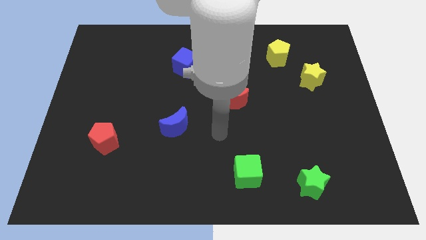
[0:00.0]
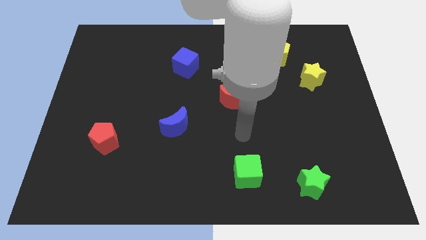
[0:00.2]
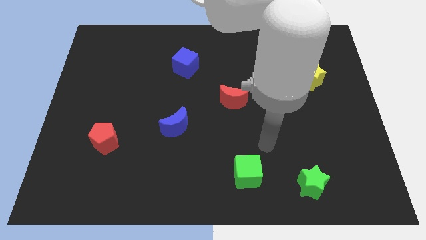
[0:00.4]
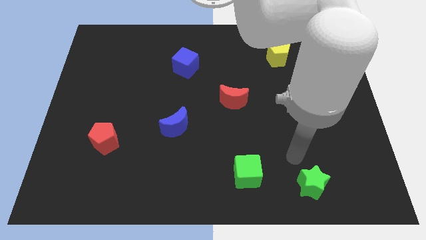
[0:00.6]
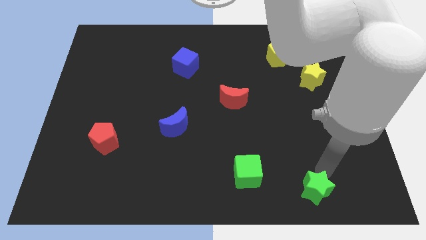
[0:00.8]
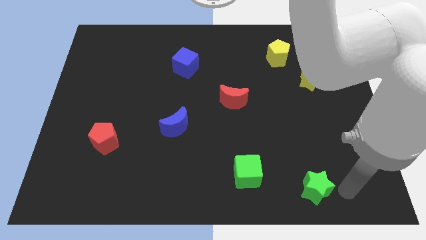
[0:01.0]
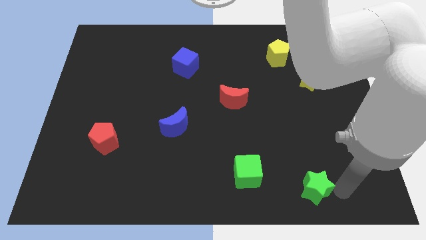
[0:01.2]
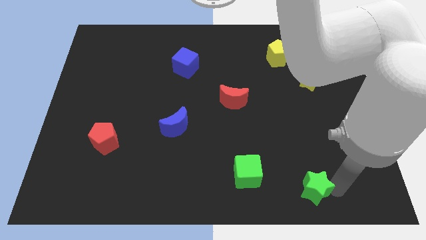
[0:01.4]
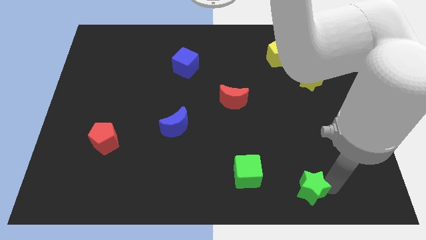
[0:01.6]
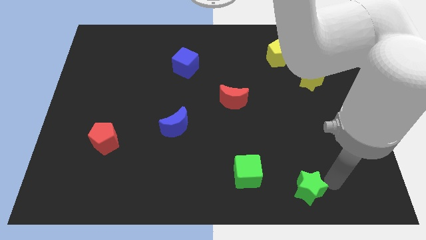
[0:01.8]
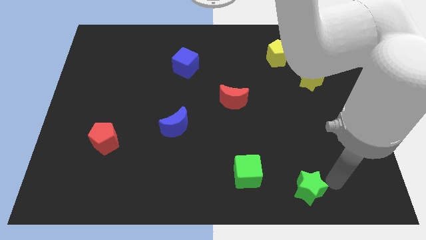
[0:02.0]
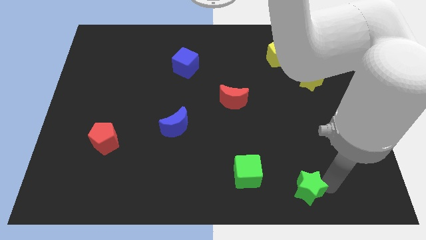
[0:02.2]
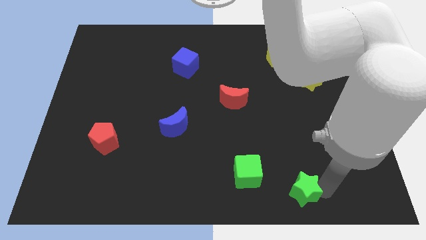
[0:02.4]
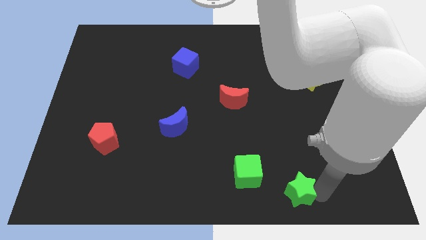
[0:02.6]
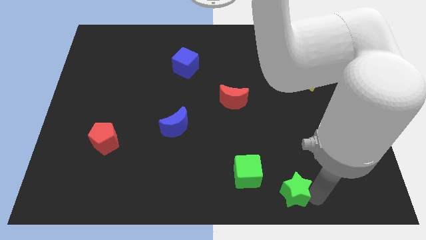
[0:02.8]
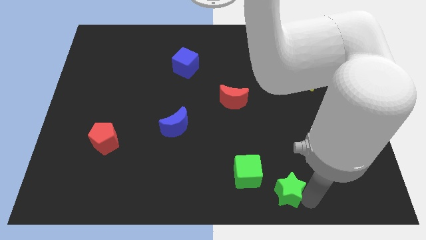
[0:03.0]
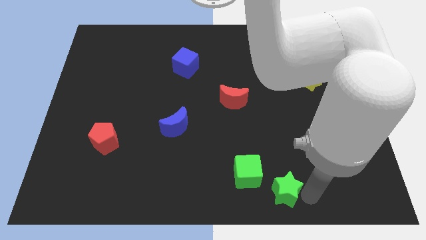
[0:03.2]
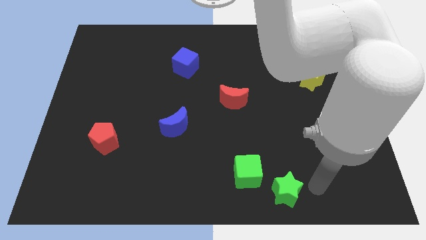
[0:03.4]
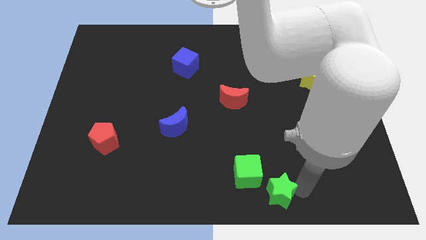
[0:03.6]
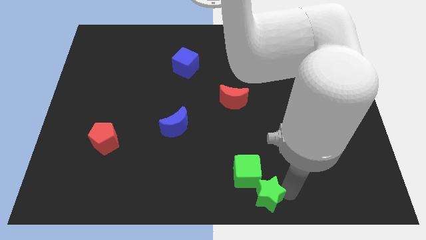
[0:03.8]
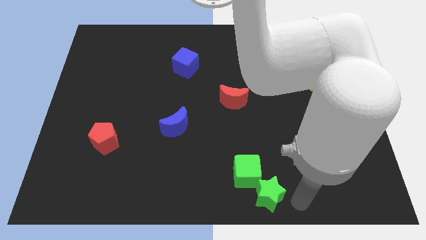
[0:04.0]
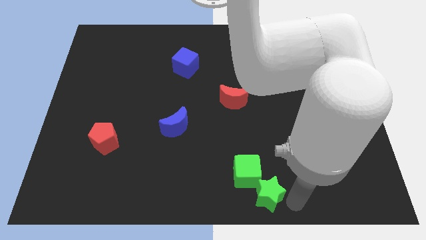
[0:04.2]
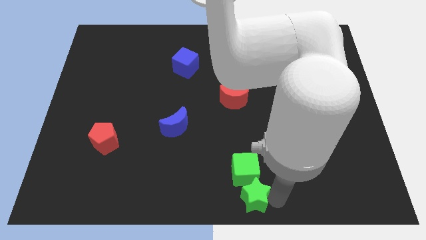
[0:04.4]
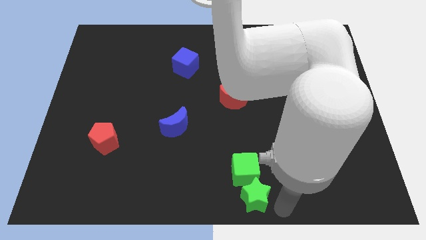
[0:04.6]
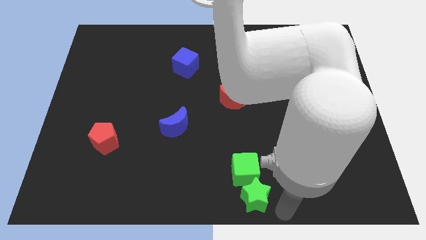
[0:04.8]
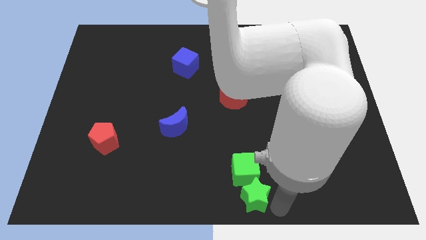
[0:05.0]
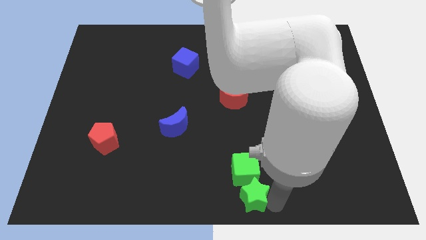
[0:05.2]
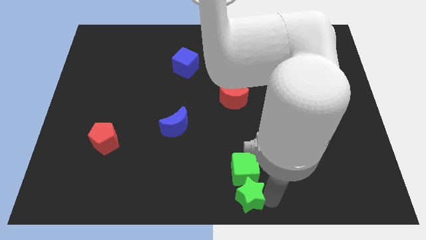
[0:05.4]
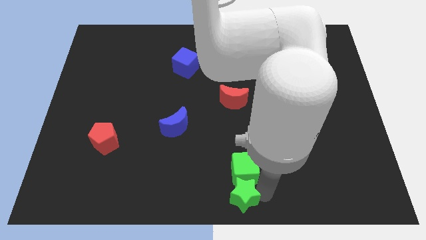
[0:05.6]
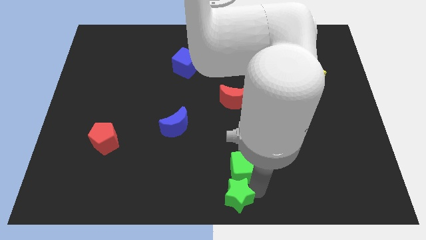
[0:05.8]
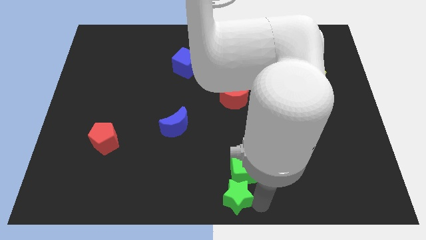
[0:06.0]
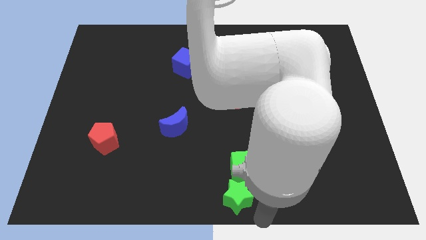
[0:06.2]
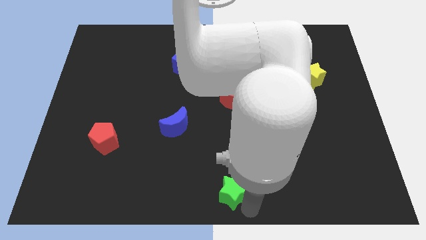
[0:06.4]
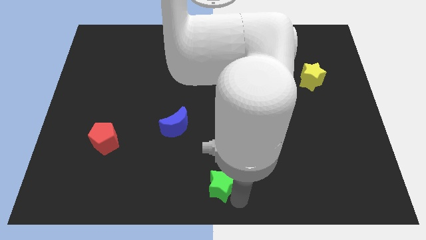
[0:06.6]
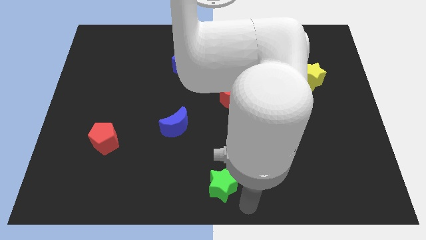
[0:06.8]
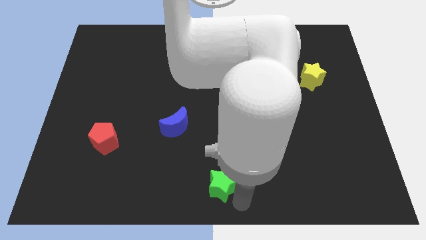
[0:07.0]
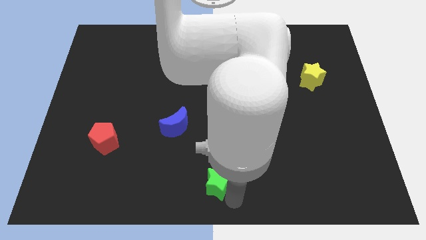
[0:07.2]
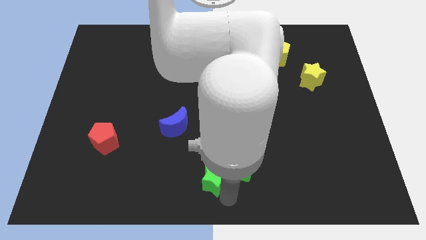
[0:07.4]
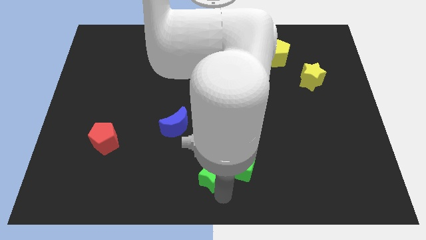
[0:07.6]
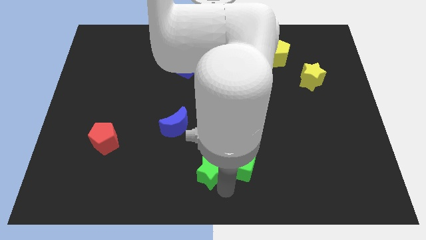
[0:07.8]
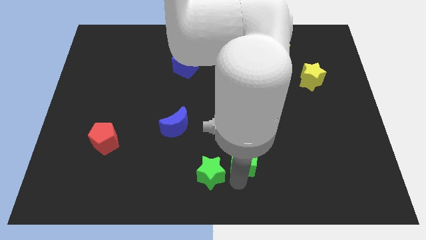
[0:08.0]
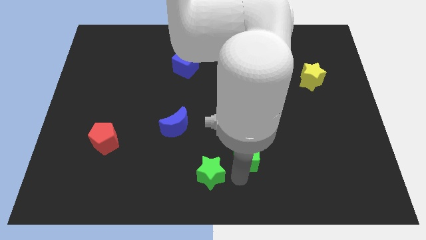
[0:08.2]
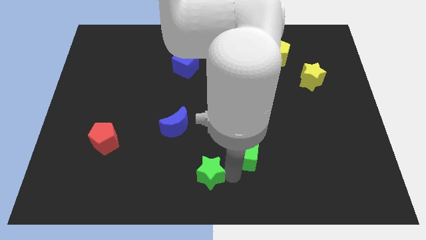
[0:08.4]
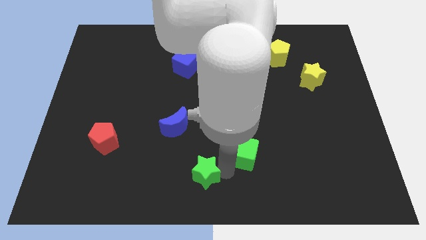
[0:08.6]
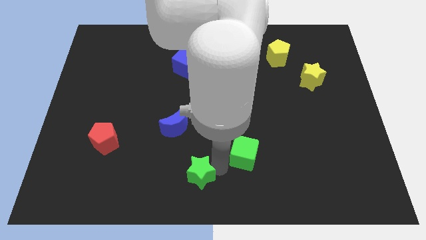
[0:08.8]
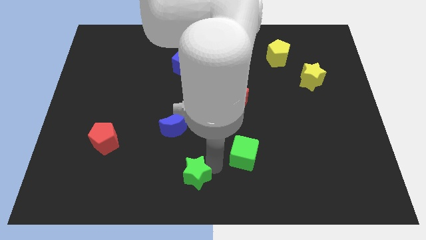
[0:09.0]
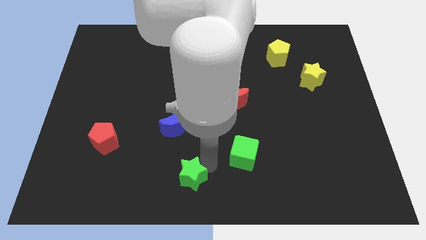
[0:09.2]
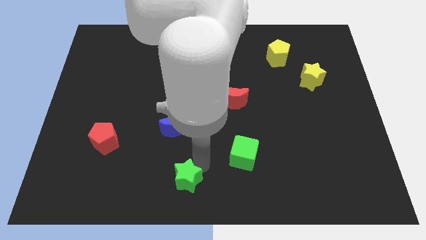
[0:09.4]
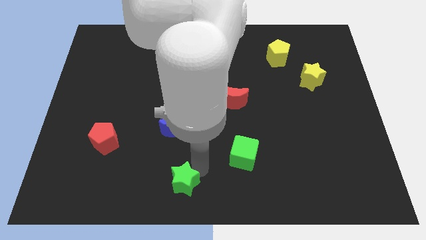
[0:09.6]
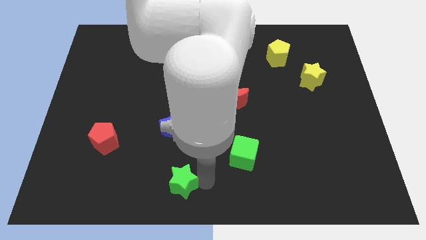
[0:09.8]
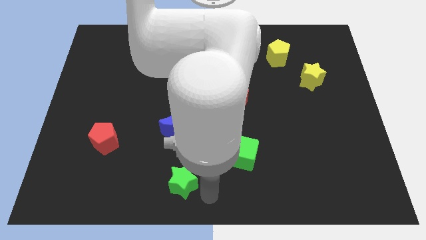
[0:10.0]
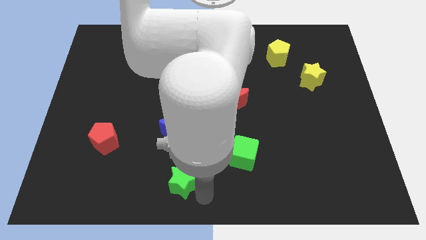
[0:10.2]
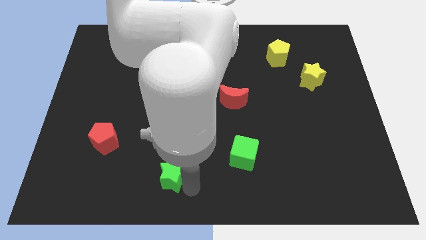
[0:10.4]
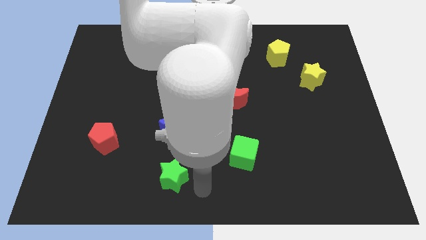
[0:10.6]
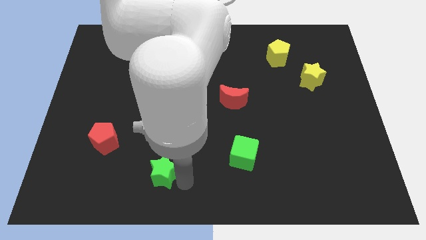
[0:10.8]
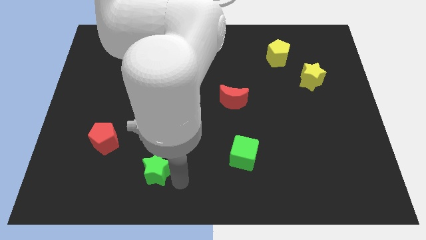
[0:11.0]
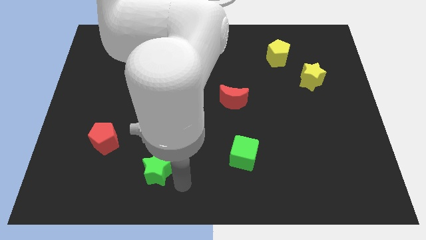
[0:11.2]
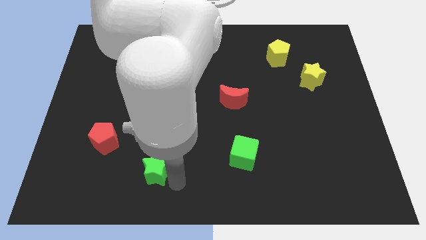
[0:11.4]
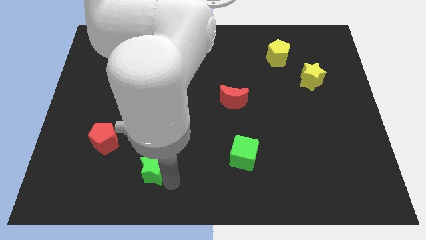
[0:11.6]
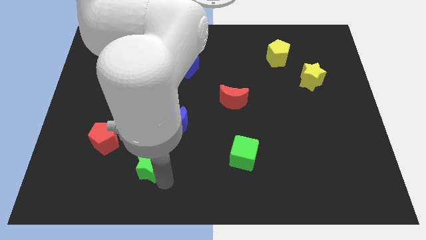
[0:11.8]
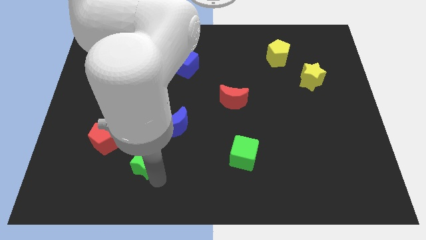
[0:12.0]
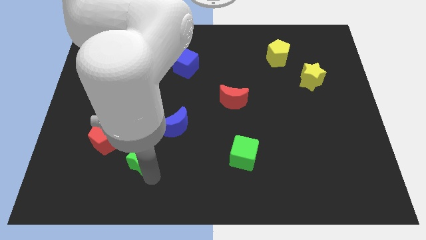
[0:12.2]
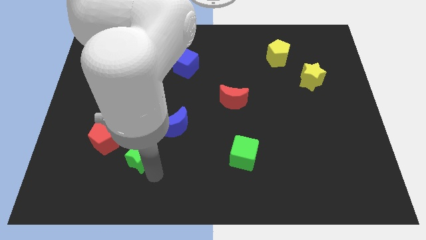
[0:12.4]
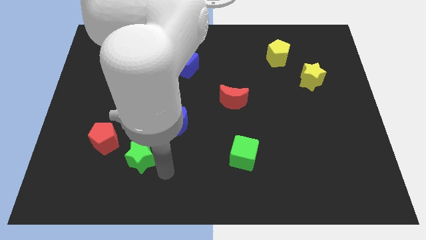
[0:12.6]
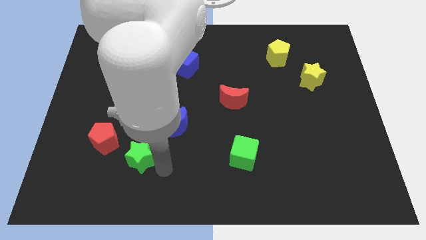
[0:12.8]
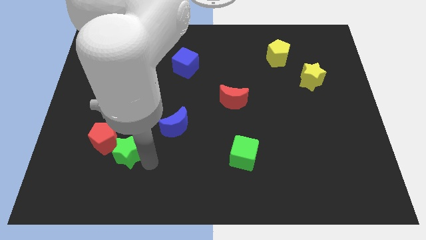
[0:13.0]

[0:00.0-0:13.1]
put the green star close to the red pentagon

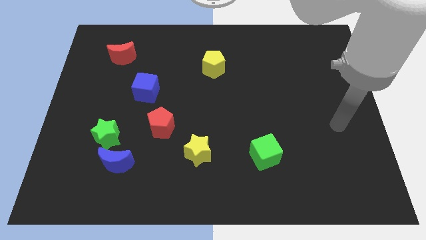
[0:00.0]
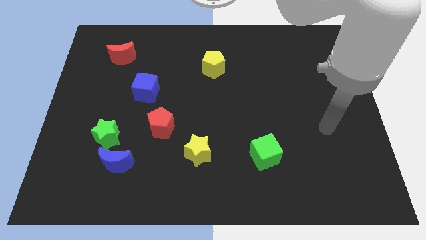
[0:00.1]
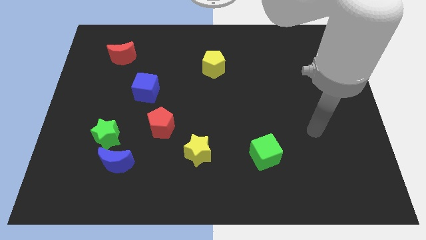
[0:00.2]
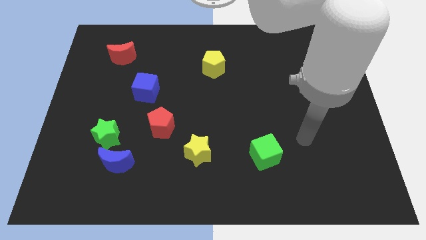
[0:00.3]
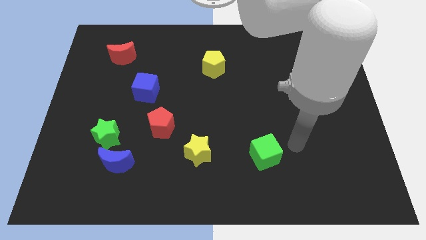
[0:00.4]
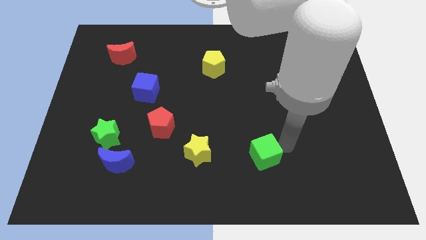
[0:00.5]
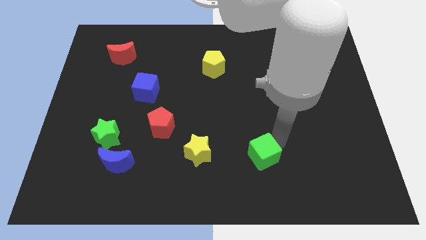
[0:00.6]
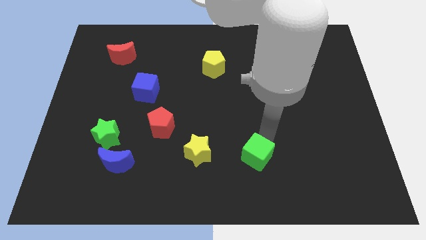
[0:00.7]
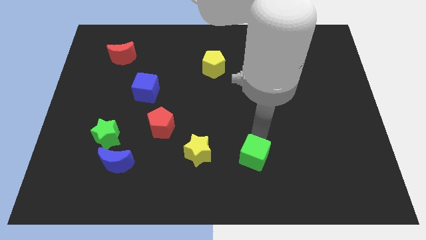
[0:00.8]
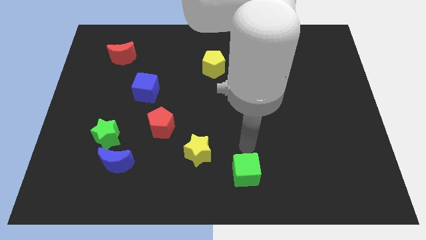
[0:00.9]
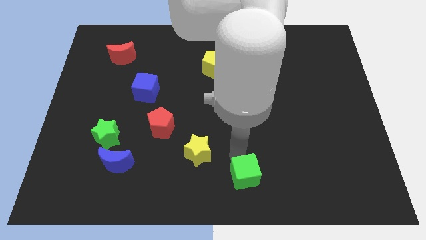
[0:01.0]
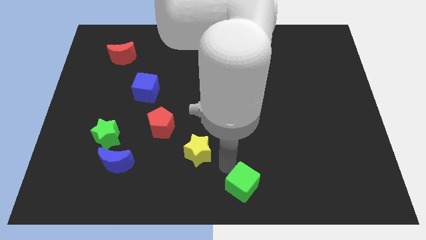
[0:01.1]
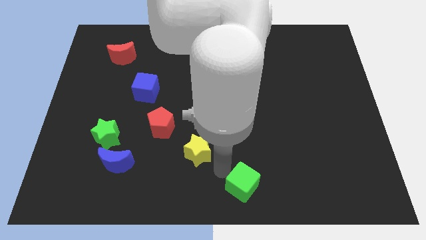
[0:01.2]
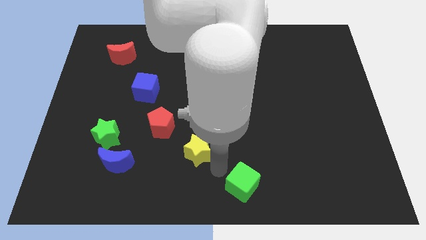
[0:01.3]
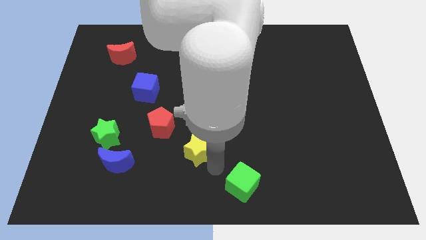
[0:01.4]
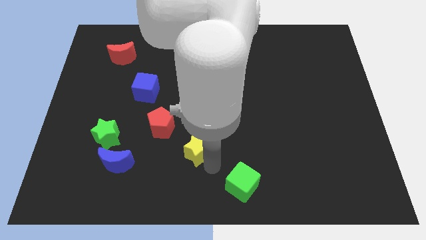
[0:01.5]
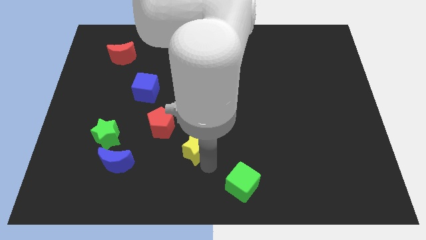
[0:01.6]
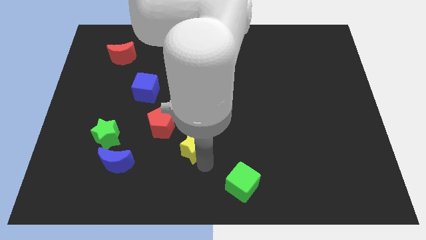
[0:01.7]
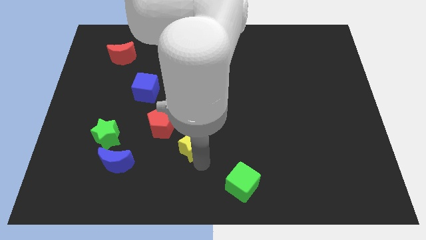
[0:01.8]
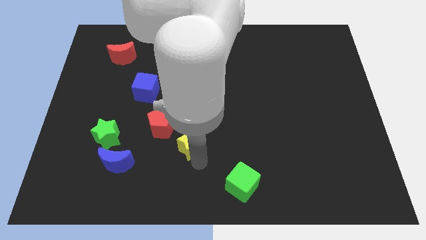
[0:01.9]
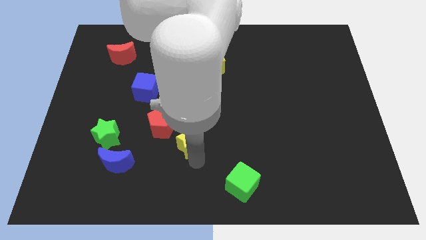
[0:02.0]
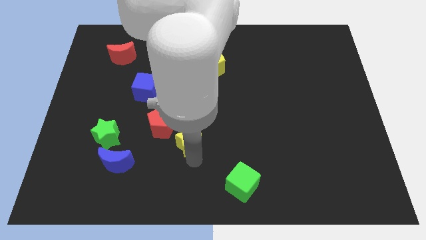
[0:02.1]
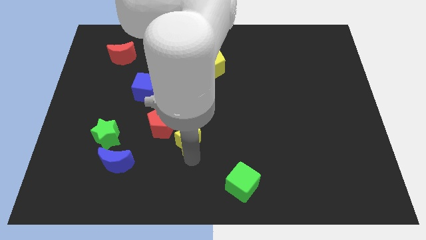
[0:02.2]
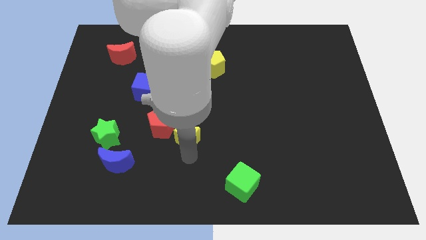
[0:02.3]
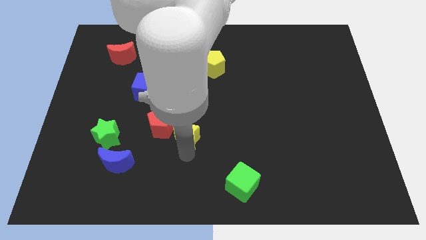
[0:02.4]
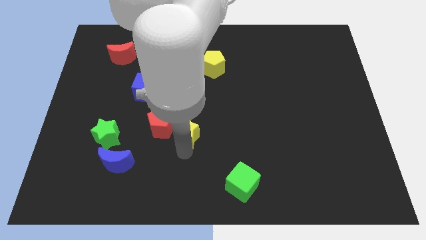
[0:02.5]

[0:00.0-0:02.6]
put the yellow star next to the red pentagon
